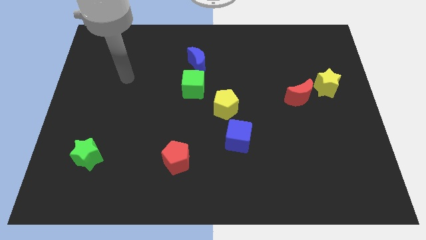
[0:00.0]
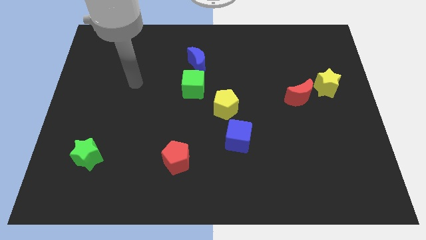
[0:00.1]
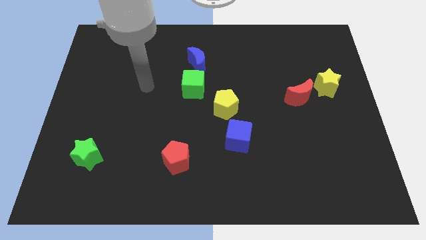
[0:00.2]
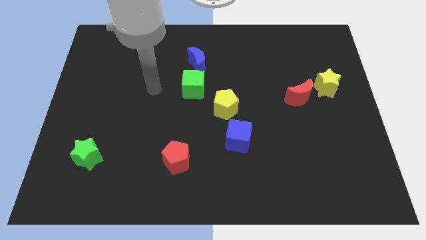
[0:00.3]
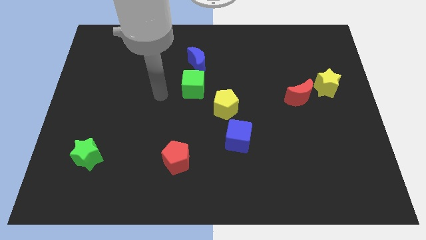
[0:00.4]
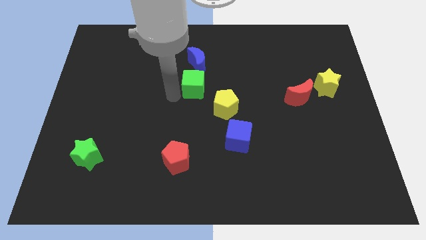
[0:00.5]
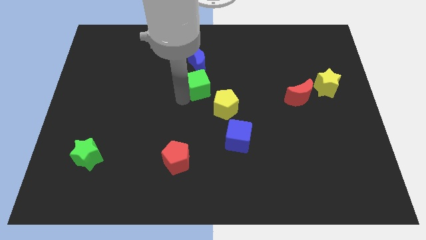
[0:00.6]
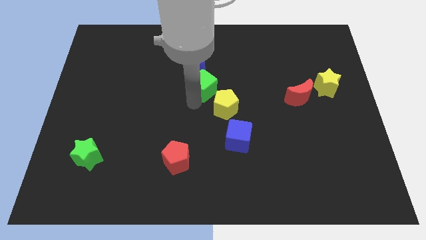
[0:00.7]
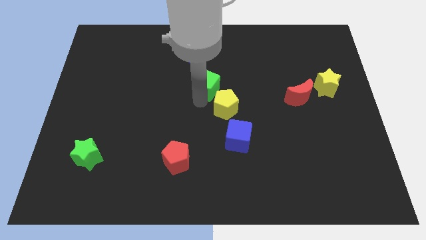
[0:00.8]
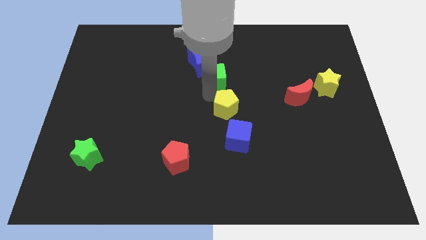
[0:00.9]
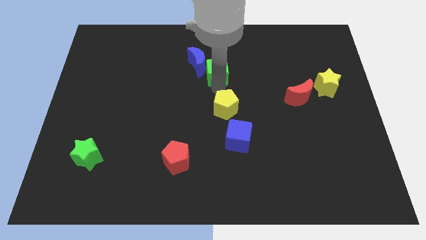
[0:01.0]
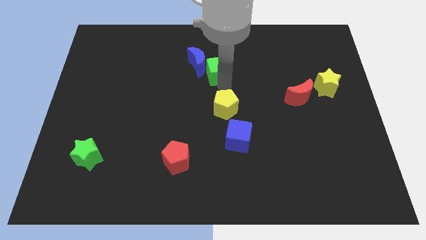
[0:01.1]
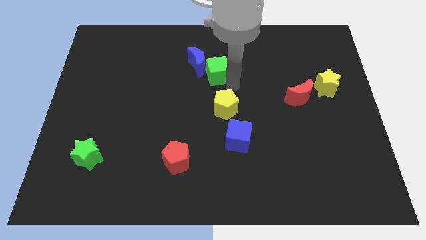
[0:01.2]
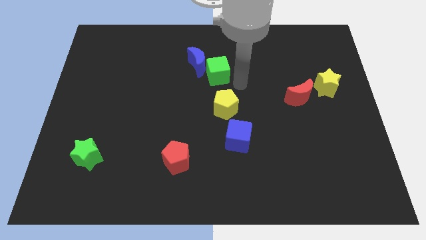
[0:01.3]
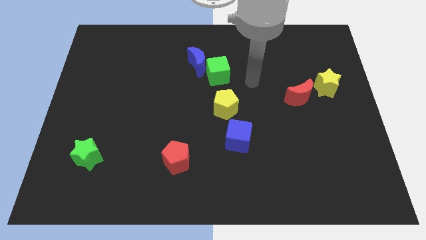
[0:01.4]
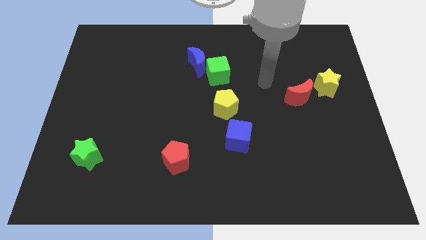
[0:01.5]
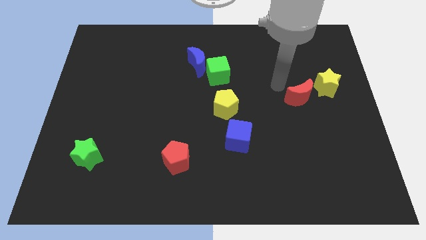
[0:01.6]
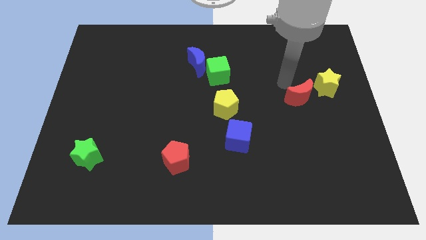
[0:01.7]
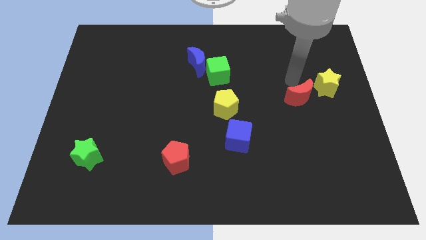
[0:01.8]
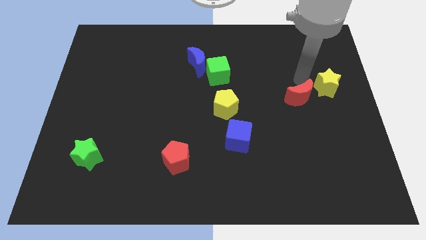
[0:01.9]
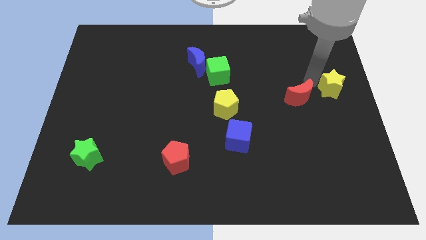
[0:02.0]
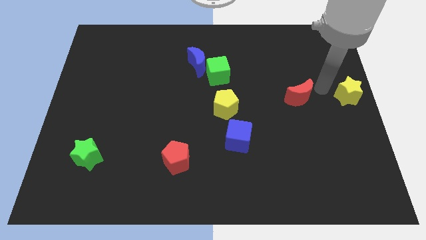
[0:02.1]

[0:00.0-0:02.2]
pull the red moon apart from the yellow star

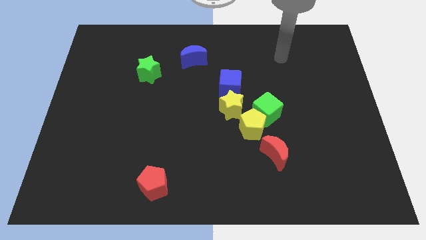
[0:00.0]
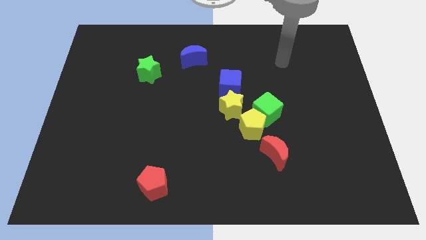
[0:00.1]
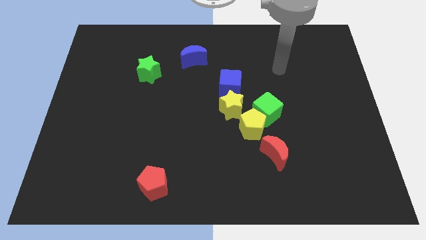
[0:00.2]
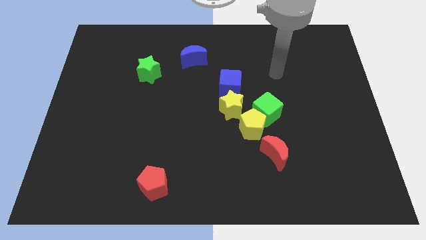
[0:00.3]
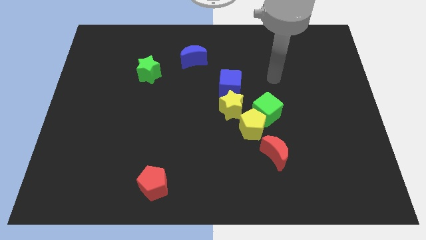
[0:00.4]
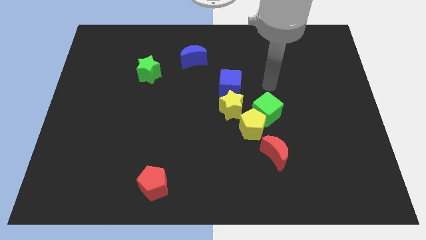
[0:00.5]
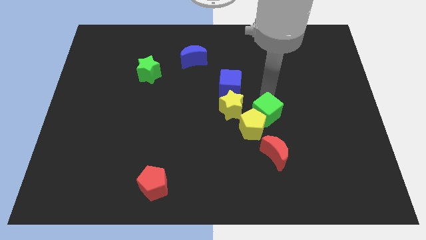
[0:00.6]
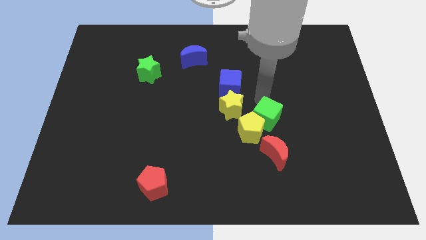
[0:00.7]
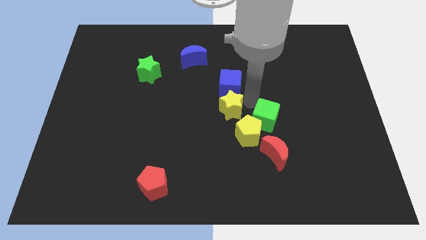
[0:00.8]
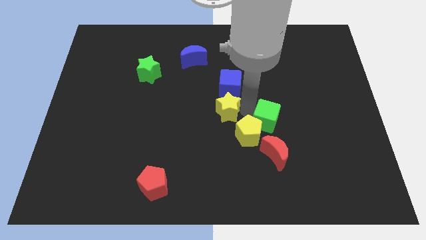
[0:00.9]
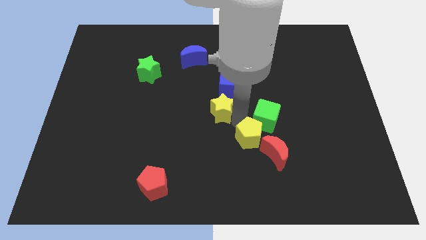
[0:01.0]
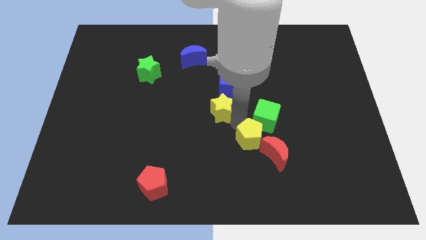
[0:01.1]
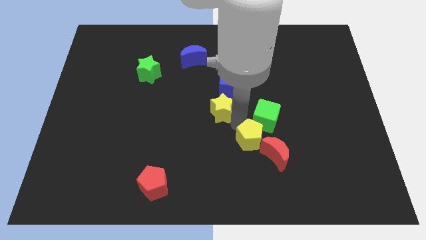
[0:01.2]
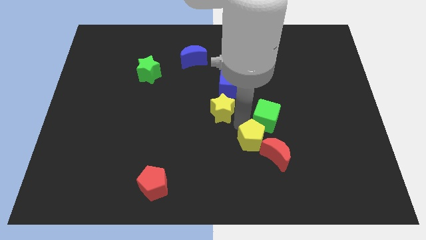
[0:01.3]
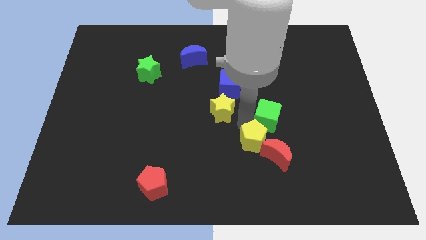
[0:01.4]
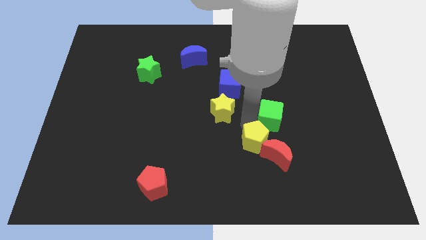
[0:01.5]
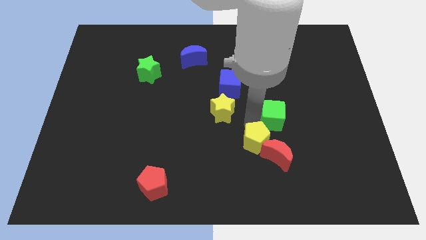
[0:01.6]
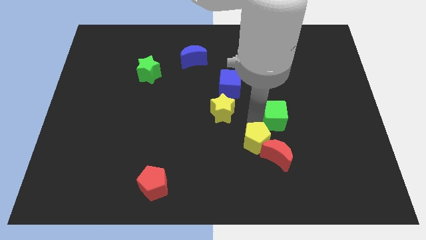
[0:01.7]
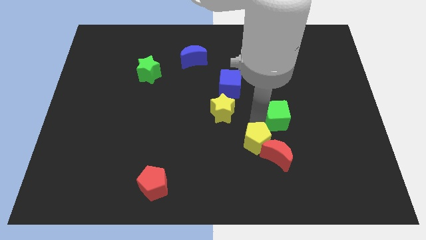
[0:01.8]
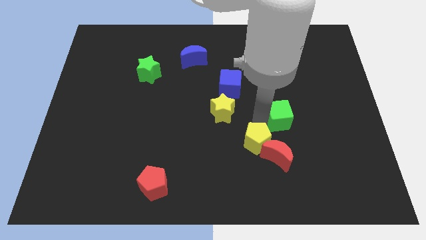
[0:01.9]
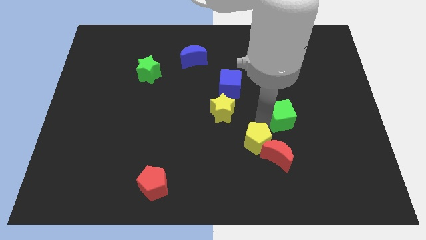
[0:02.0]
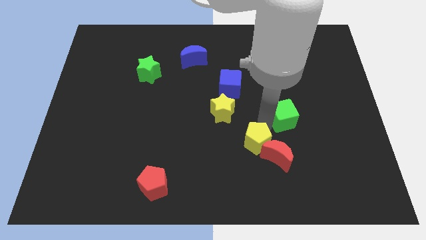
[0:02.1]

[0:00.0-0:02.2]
move the green cube away from the yellow pentagon and yellow star

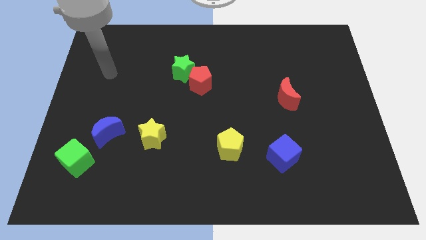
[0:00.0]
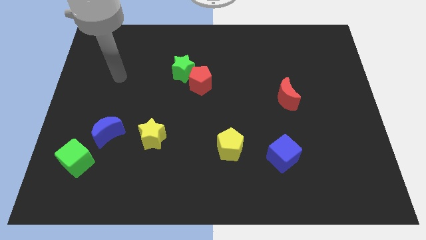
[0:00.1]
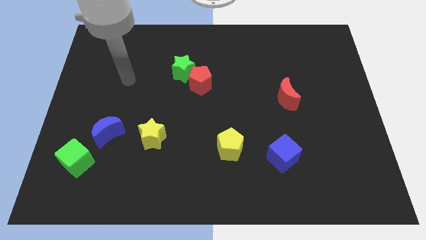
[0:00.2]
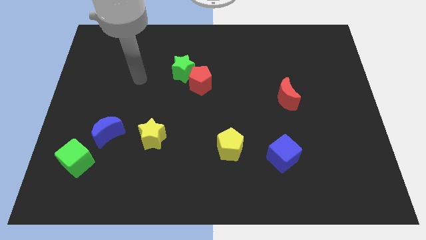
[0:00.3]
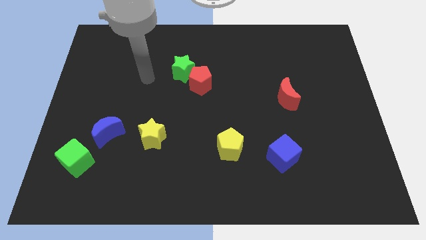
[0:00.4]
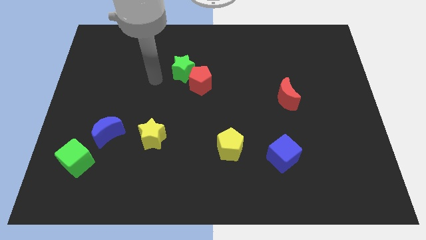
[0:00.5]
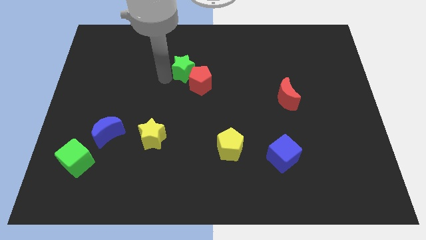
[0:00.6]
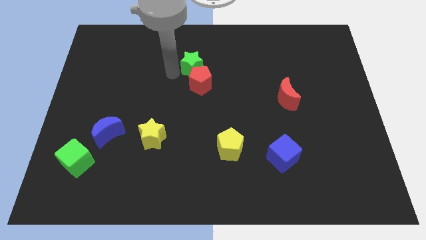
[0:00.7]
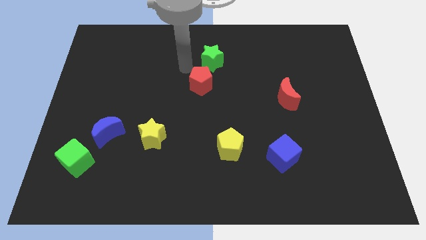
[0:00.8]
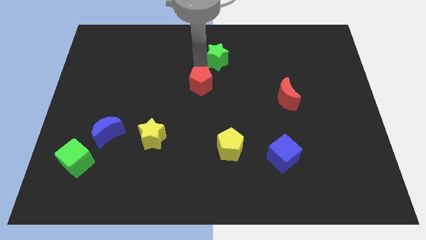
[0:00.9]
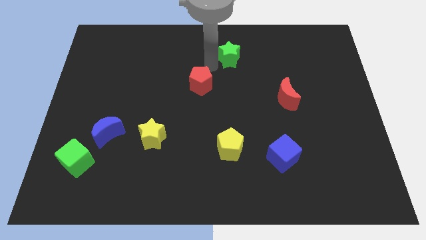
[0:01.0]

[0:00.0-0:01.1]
separate the red pentagon from the green star

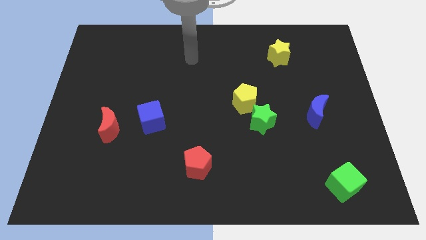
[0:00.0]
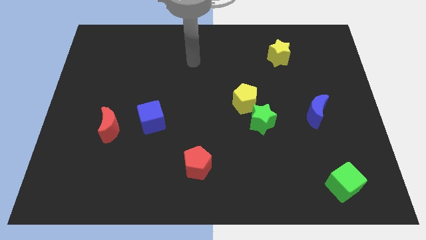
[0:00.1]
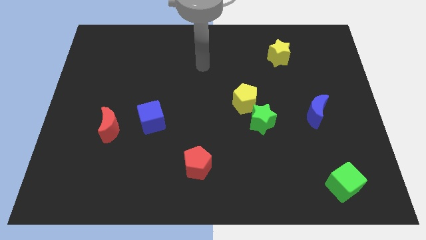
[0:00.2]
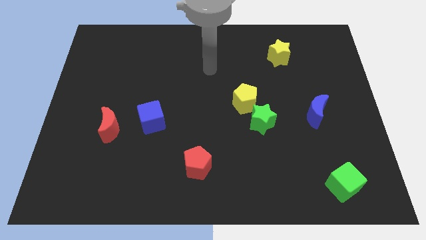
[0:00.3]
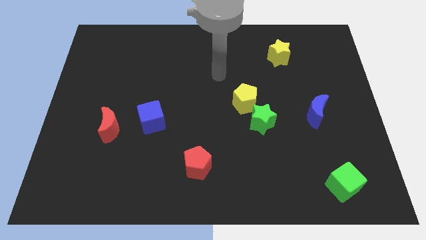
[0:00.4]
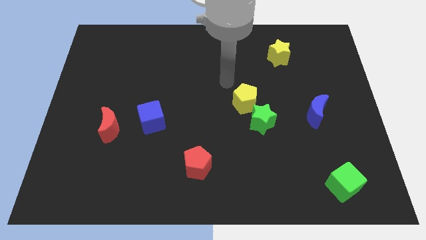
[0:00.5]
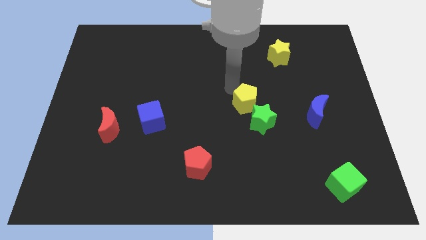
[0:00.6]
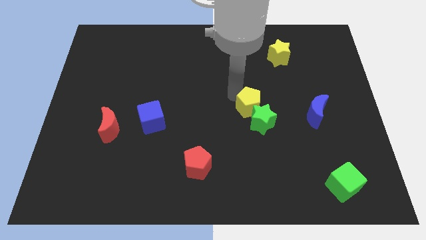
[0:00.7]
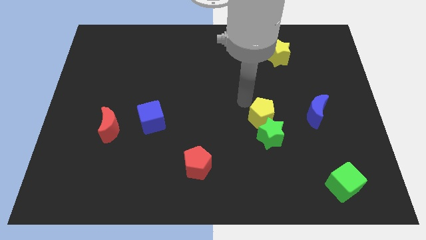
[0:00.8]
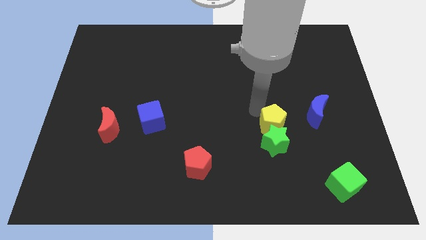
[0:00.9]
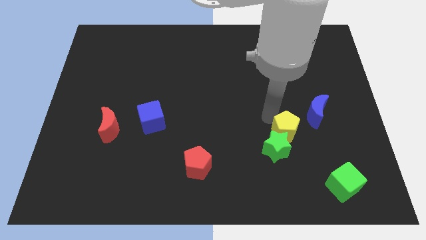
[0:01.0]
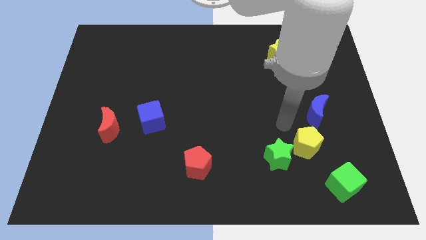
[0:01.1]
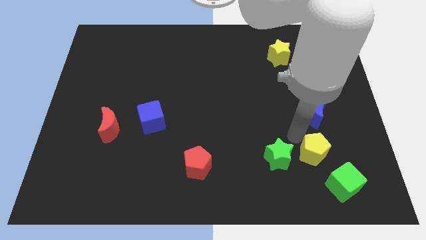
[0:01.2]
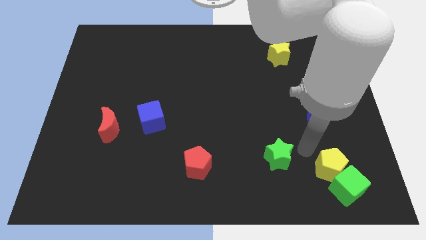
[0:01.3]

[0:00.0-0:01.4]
move the green star away from the yellow pentagon

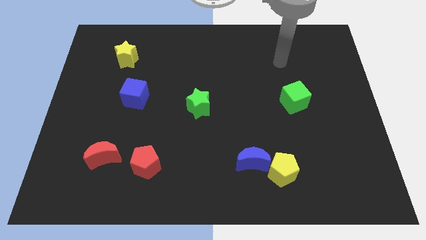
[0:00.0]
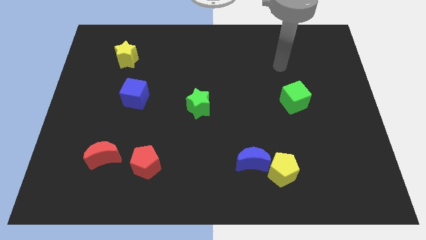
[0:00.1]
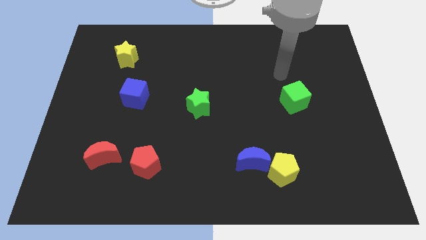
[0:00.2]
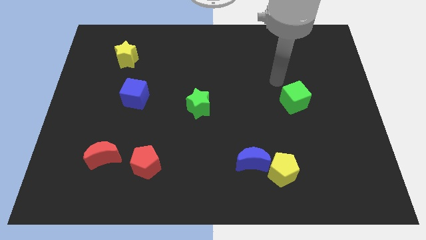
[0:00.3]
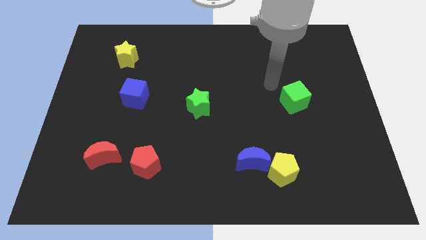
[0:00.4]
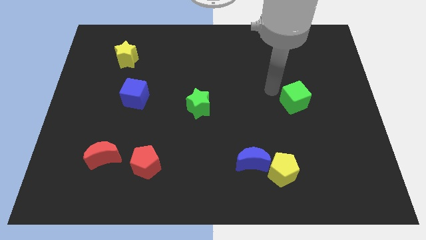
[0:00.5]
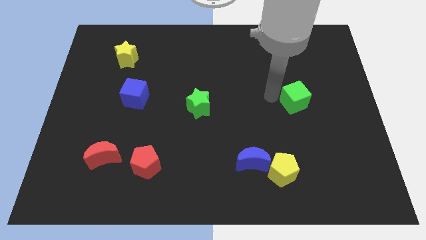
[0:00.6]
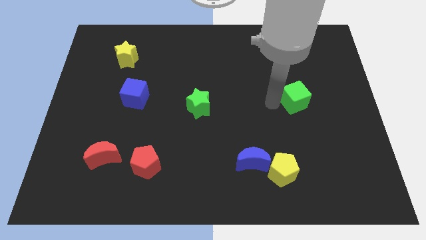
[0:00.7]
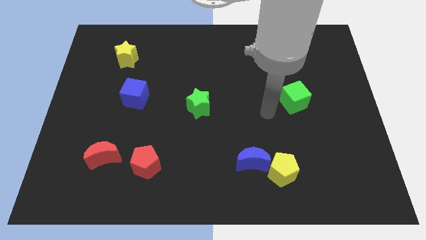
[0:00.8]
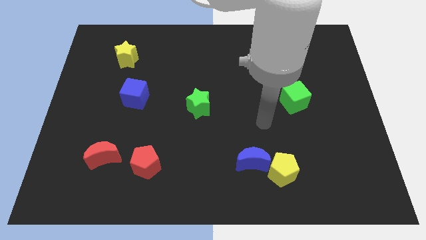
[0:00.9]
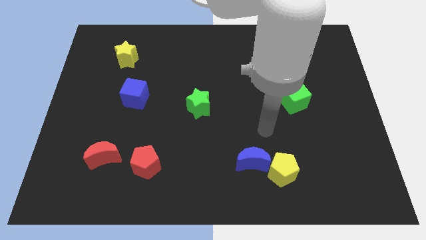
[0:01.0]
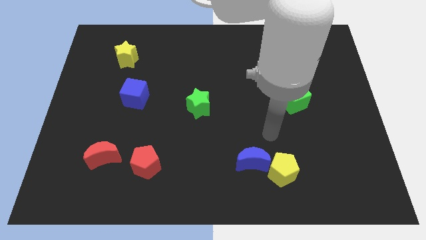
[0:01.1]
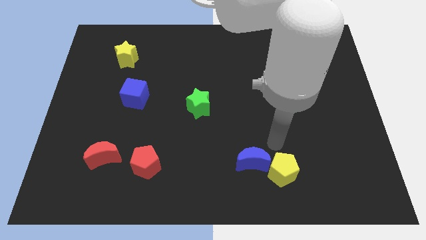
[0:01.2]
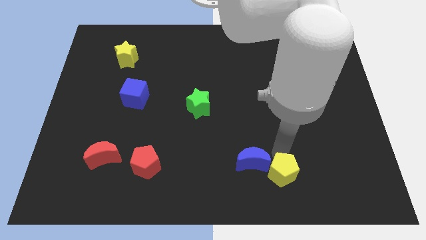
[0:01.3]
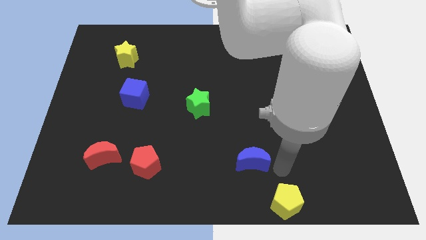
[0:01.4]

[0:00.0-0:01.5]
separate the blue moon from the yellow pentagon

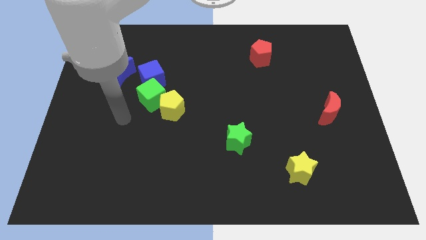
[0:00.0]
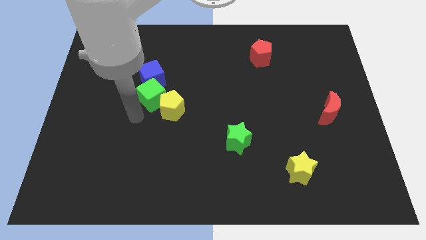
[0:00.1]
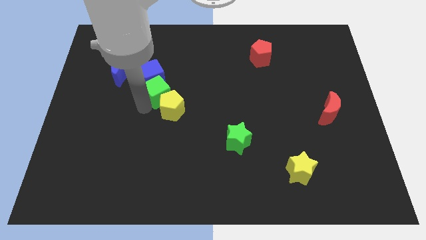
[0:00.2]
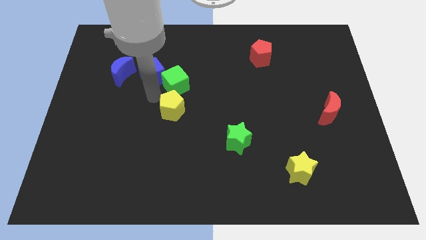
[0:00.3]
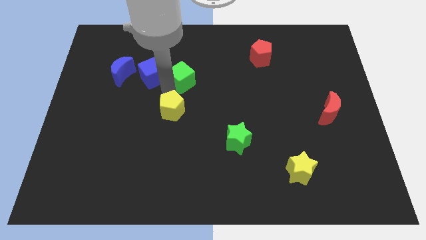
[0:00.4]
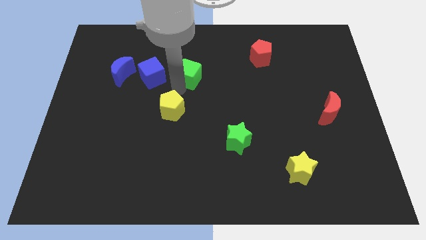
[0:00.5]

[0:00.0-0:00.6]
separate the yellow pentagon from the green cube

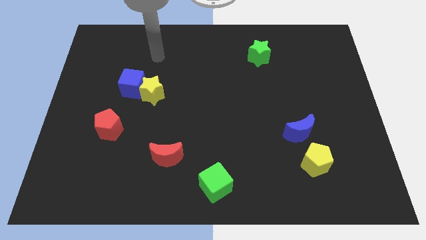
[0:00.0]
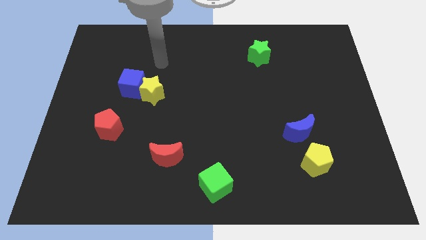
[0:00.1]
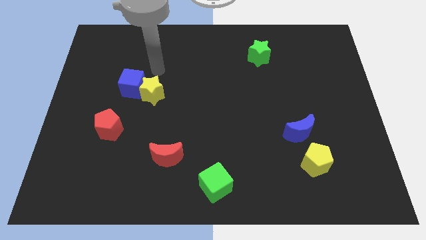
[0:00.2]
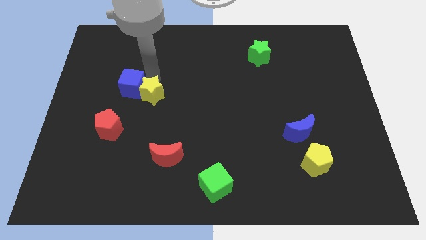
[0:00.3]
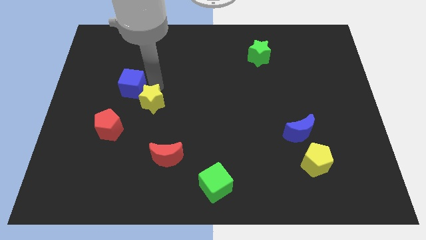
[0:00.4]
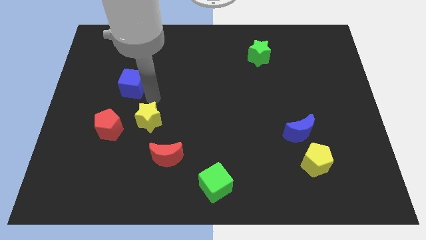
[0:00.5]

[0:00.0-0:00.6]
pull the blue cube apart from the yellow star
